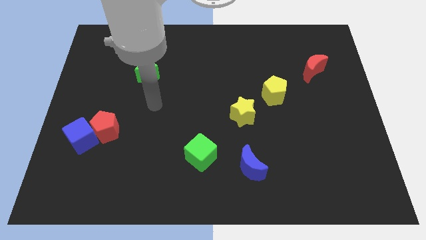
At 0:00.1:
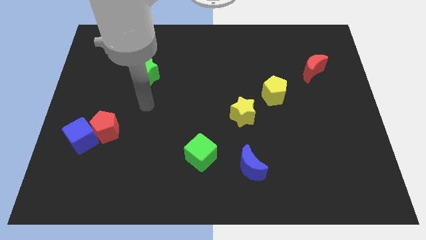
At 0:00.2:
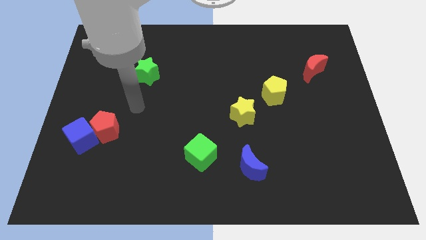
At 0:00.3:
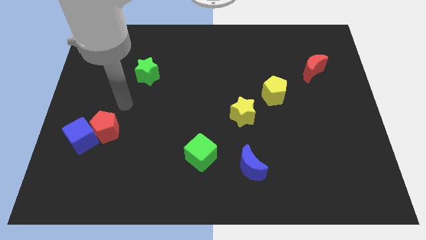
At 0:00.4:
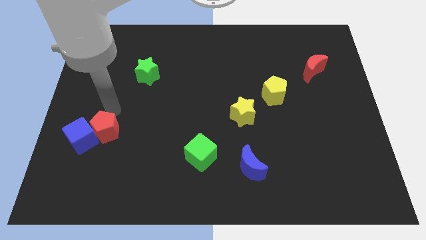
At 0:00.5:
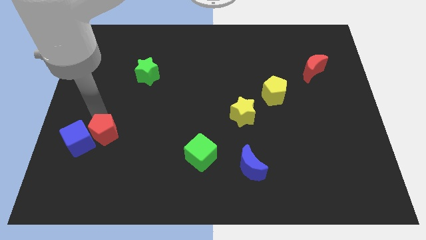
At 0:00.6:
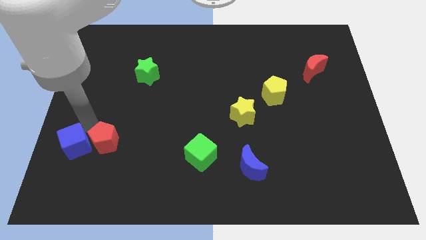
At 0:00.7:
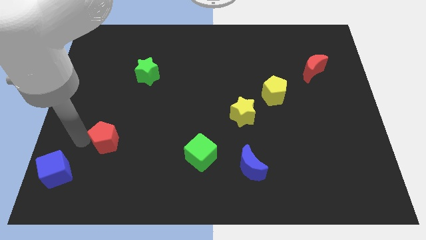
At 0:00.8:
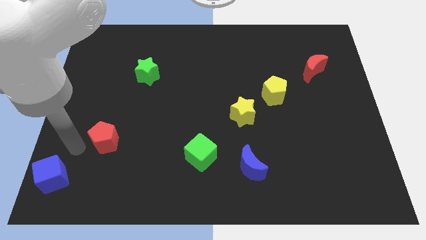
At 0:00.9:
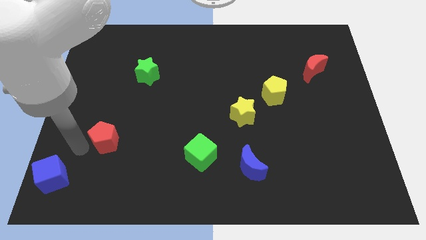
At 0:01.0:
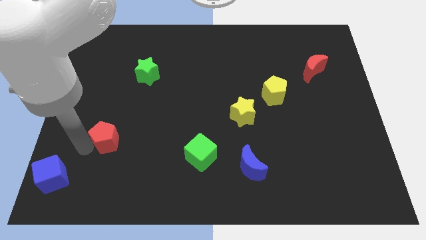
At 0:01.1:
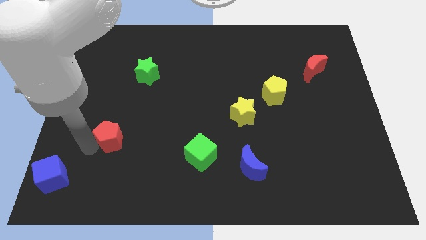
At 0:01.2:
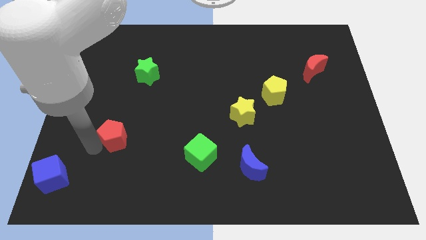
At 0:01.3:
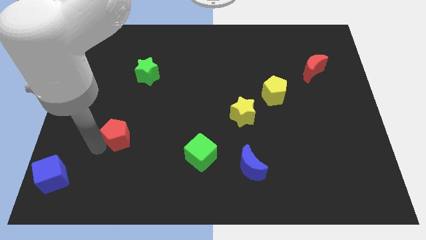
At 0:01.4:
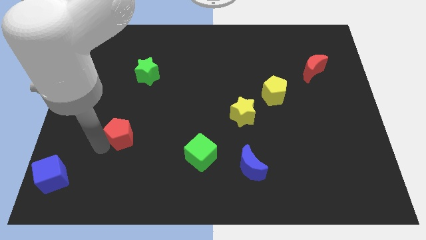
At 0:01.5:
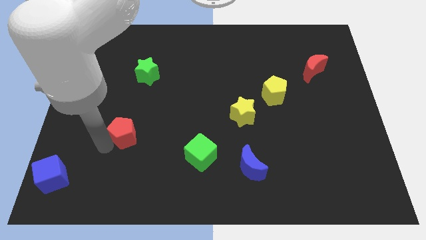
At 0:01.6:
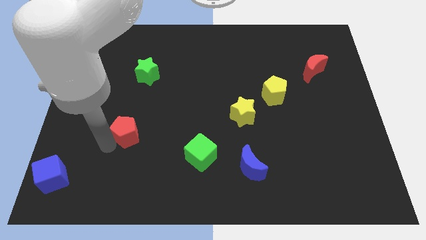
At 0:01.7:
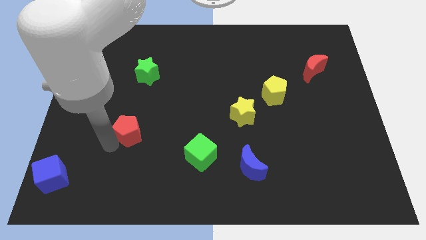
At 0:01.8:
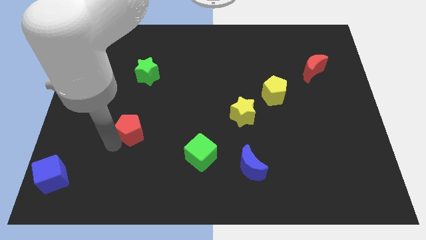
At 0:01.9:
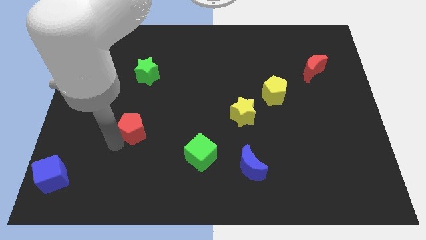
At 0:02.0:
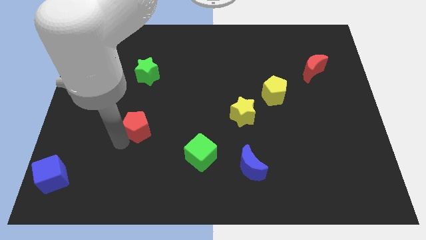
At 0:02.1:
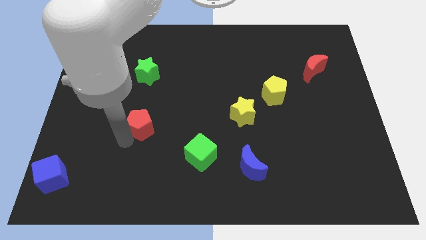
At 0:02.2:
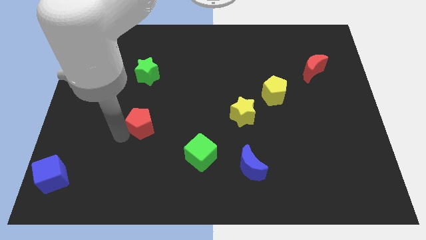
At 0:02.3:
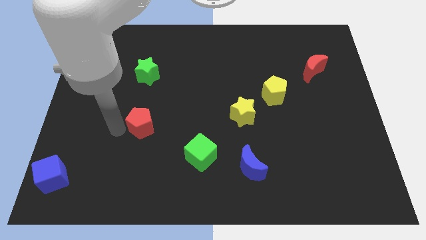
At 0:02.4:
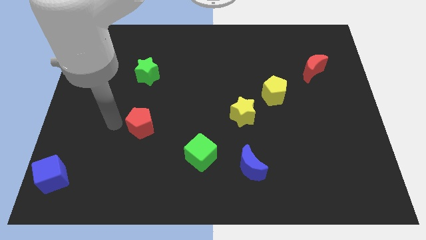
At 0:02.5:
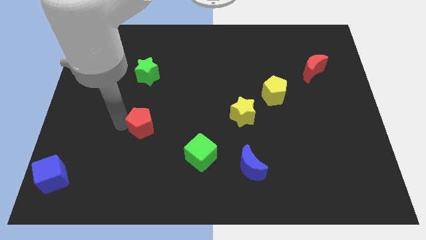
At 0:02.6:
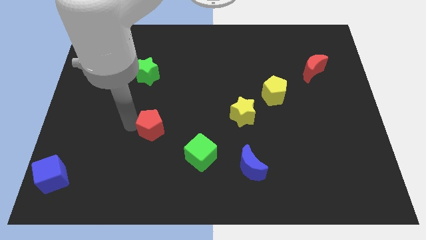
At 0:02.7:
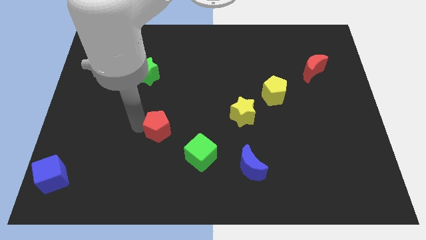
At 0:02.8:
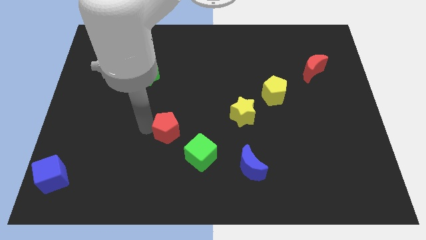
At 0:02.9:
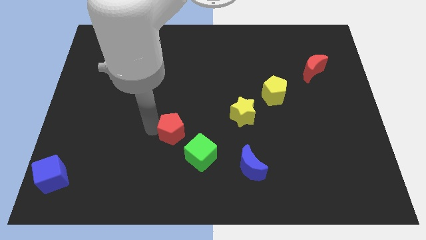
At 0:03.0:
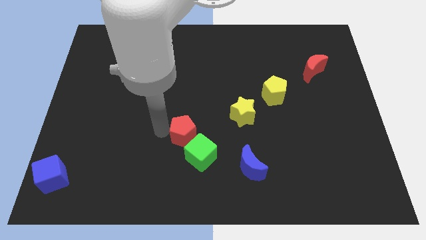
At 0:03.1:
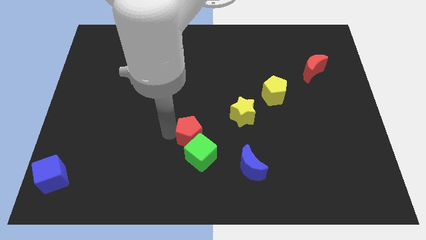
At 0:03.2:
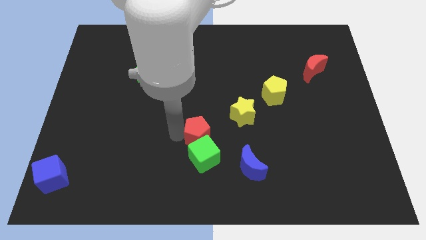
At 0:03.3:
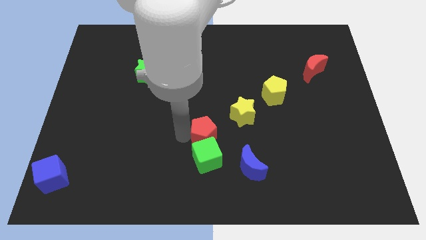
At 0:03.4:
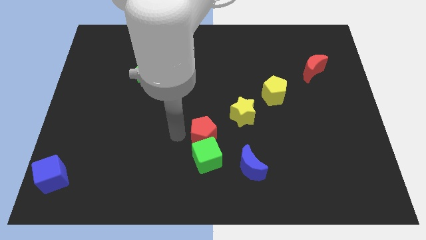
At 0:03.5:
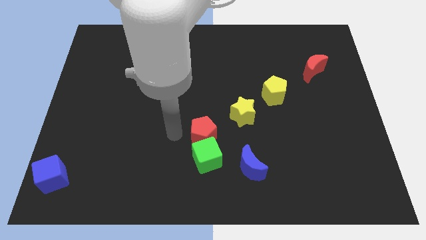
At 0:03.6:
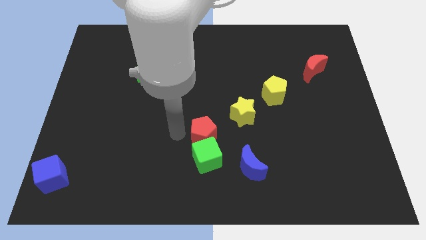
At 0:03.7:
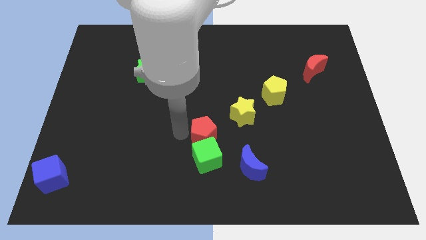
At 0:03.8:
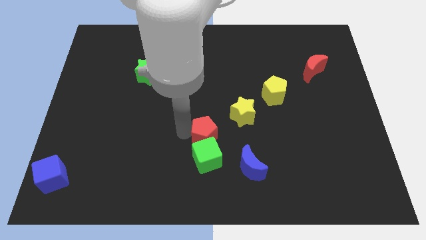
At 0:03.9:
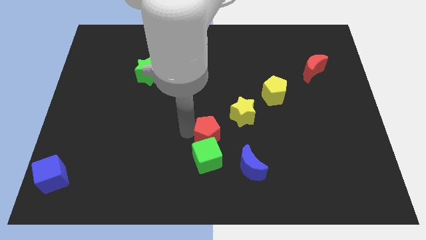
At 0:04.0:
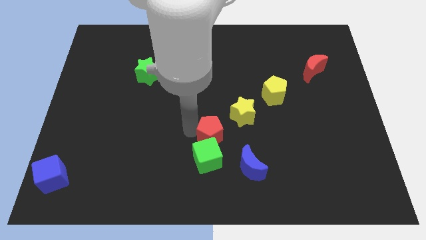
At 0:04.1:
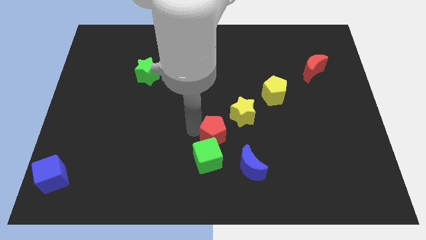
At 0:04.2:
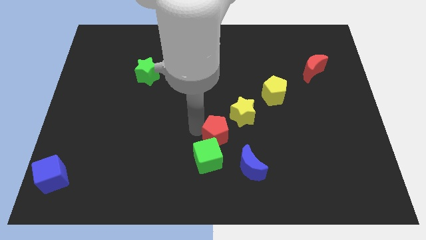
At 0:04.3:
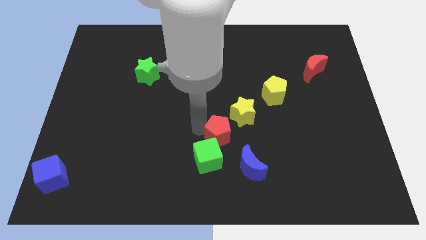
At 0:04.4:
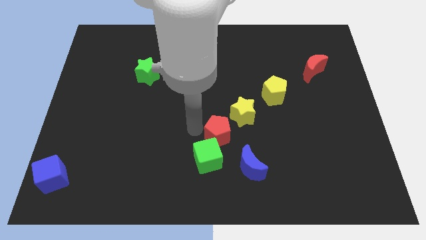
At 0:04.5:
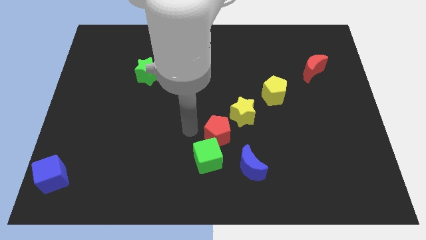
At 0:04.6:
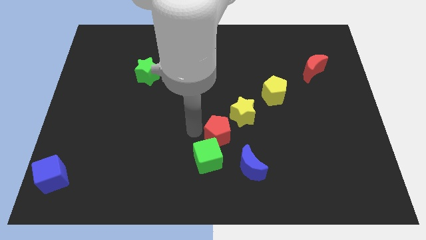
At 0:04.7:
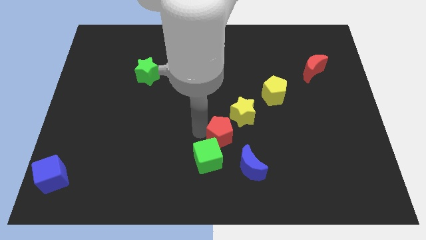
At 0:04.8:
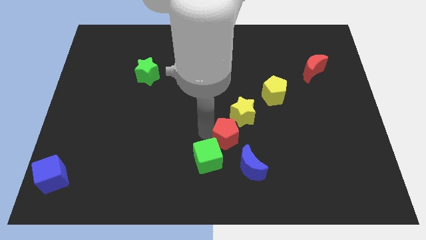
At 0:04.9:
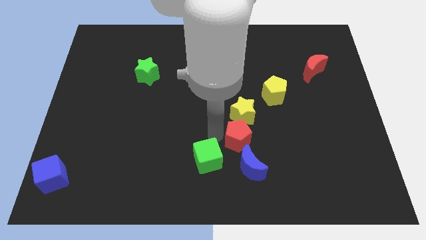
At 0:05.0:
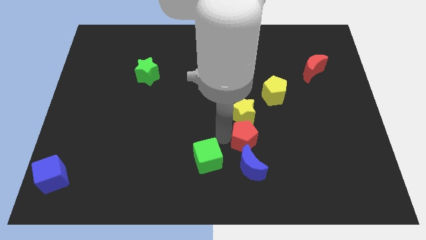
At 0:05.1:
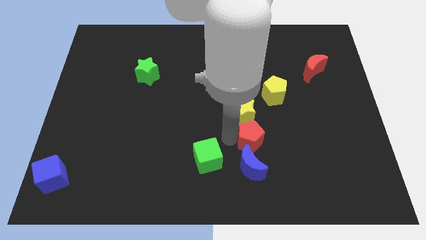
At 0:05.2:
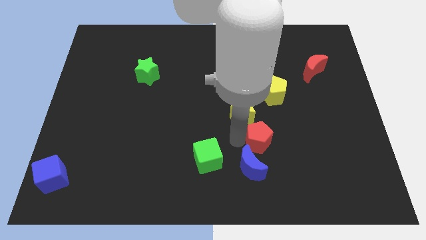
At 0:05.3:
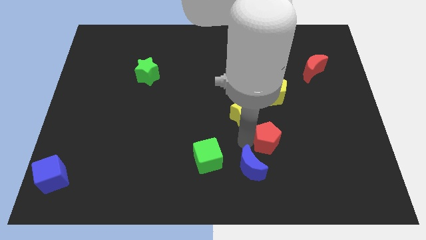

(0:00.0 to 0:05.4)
move the red pentagon to the bottom side of the yellow pentagon

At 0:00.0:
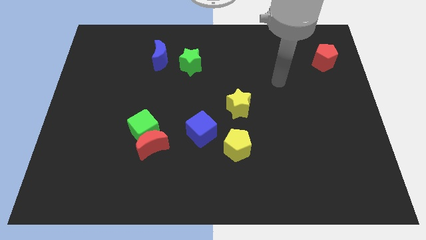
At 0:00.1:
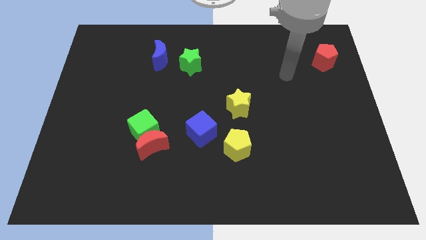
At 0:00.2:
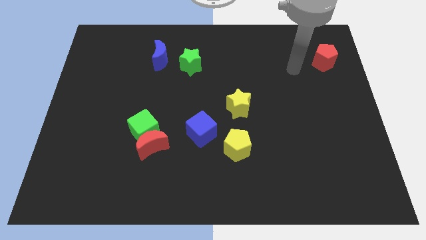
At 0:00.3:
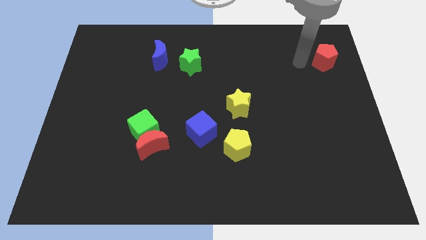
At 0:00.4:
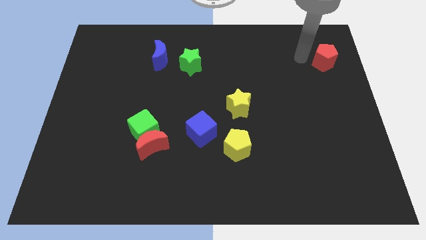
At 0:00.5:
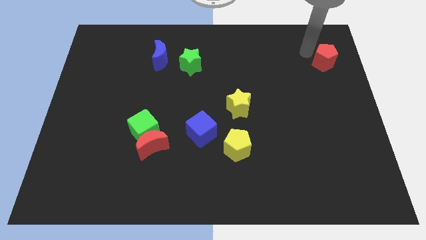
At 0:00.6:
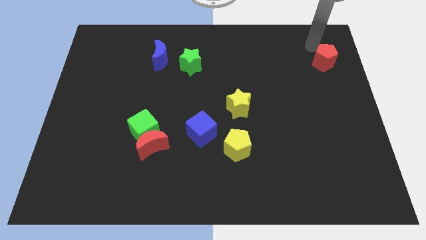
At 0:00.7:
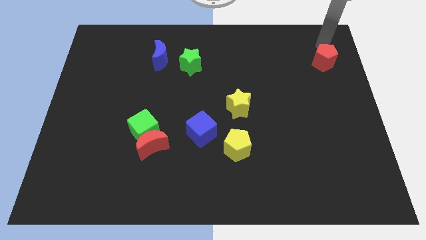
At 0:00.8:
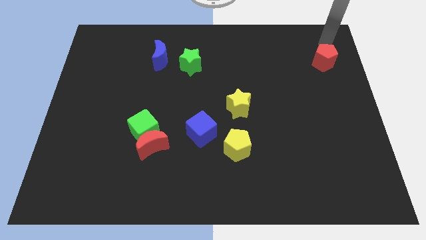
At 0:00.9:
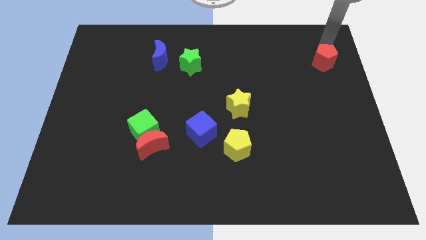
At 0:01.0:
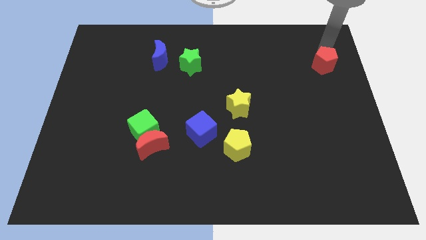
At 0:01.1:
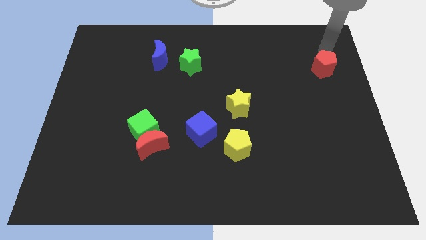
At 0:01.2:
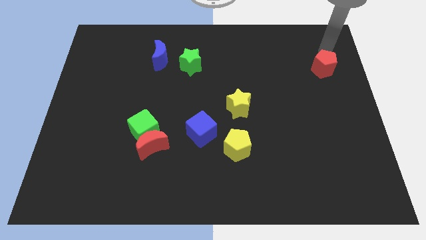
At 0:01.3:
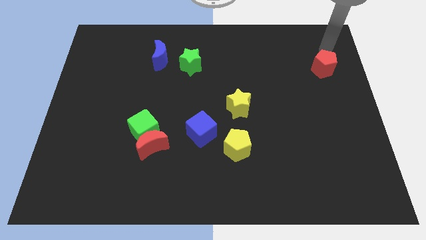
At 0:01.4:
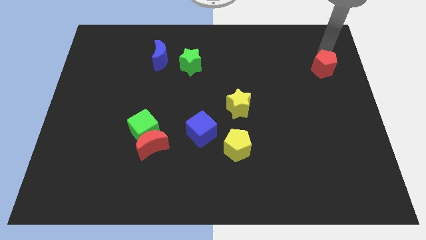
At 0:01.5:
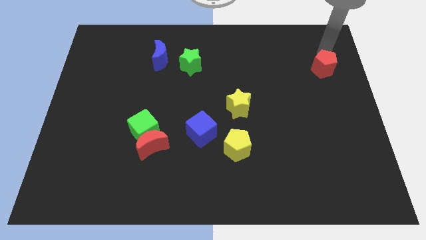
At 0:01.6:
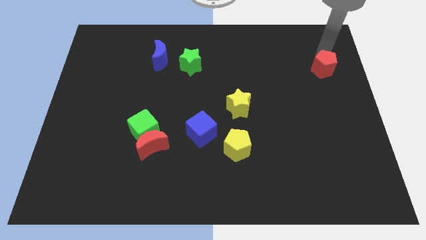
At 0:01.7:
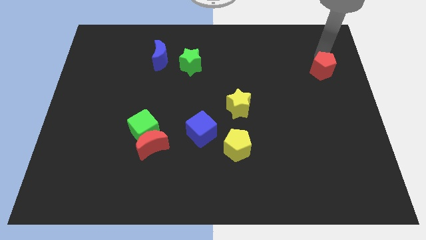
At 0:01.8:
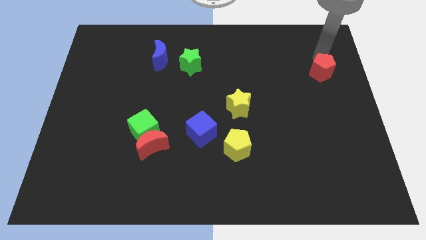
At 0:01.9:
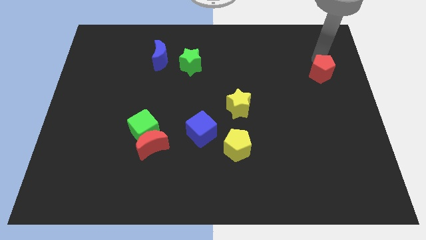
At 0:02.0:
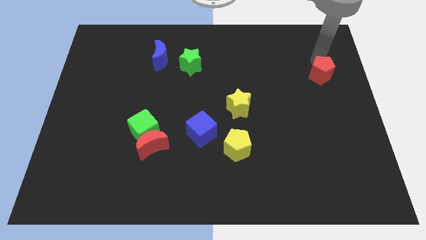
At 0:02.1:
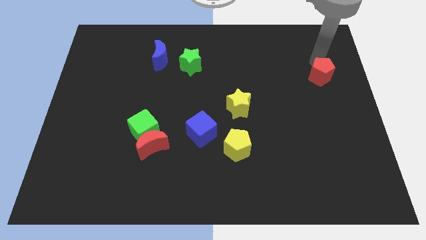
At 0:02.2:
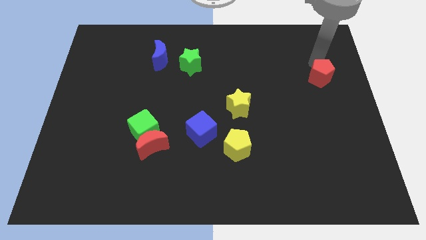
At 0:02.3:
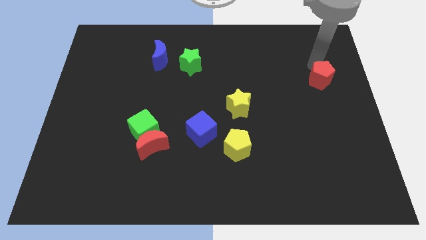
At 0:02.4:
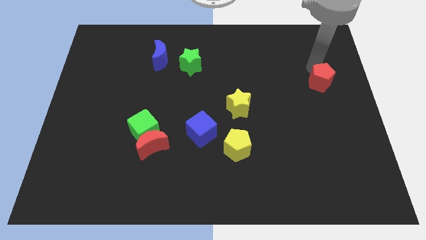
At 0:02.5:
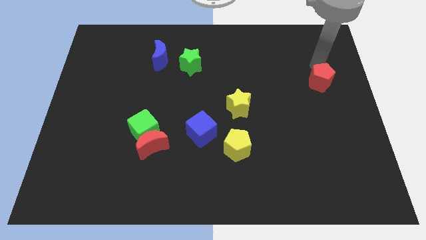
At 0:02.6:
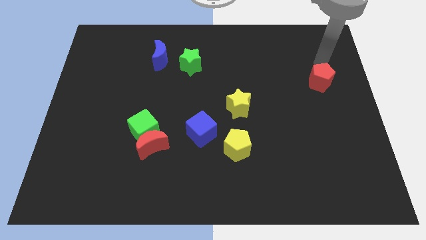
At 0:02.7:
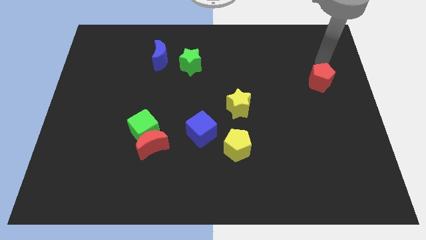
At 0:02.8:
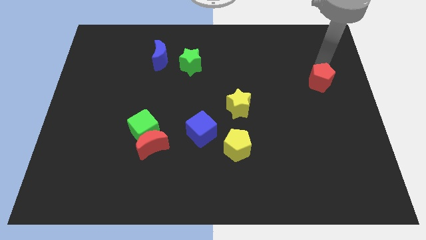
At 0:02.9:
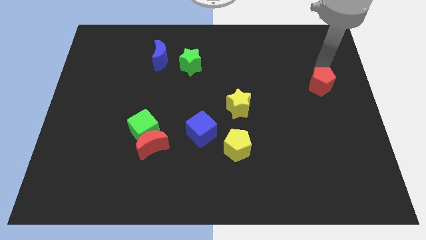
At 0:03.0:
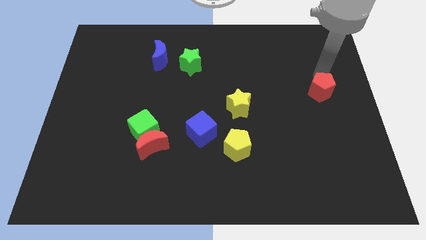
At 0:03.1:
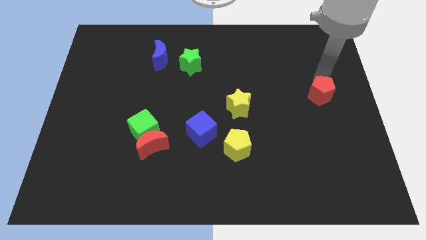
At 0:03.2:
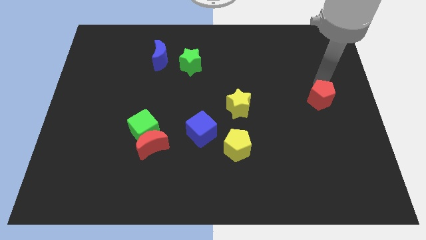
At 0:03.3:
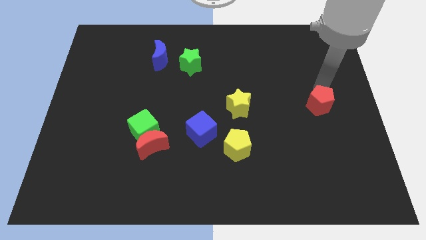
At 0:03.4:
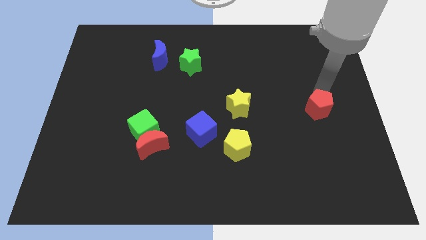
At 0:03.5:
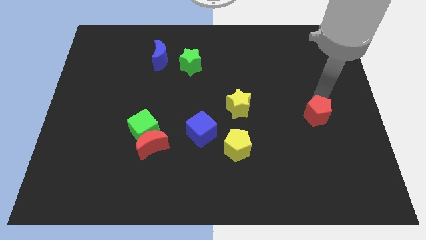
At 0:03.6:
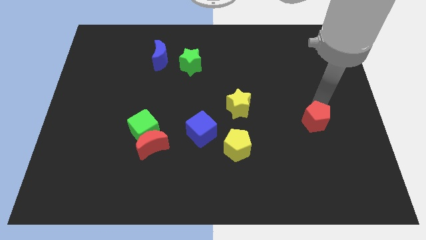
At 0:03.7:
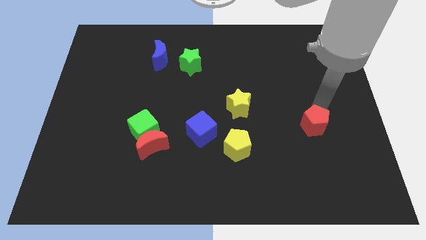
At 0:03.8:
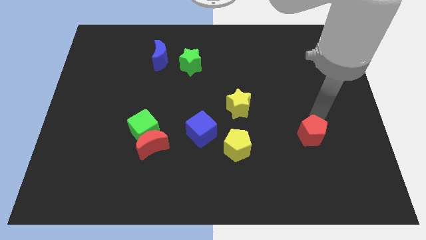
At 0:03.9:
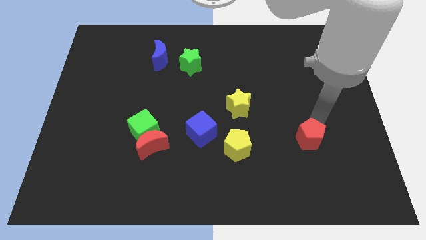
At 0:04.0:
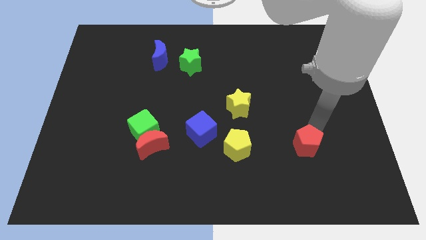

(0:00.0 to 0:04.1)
push the red pentagon to the right side of the yellow pentagon
